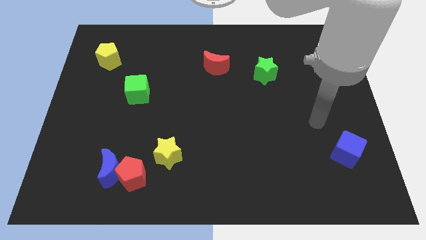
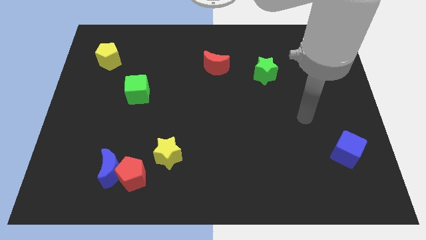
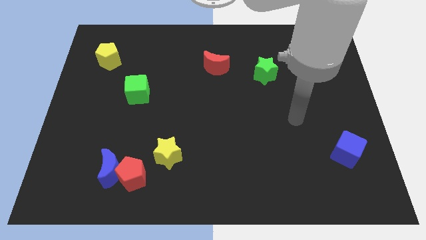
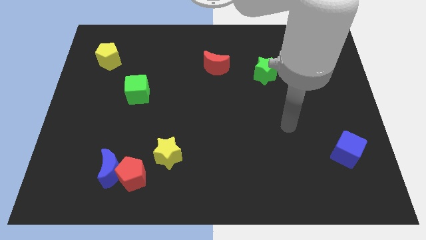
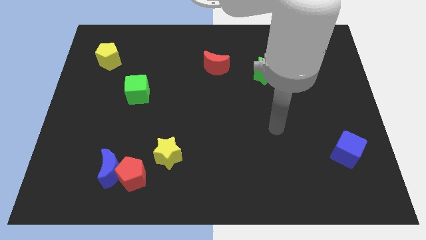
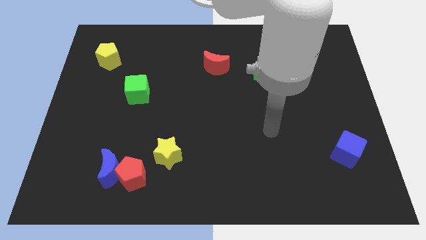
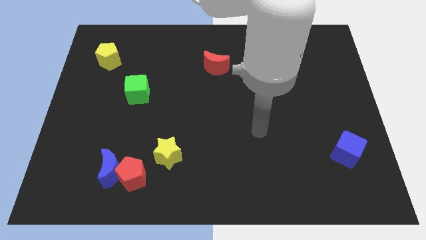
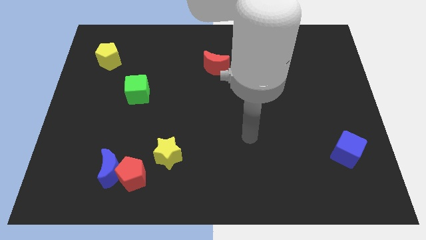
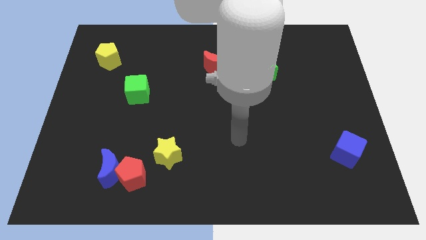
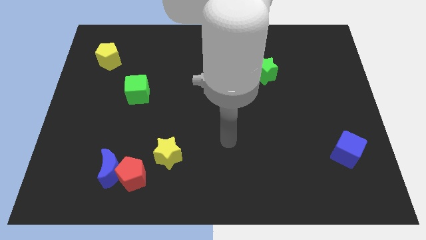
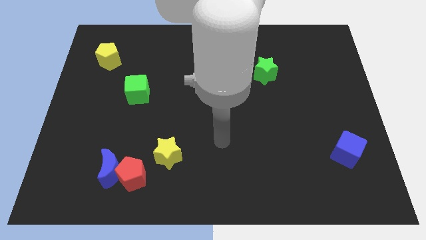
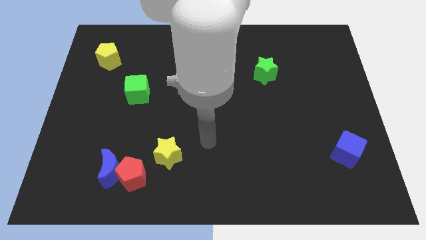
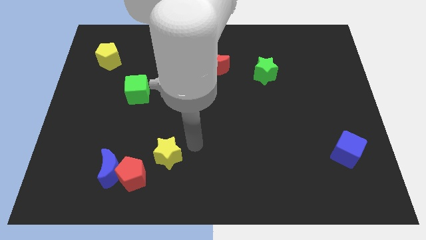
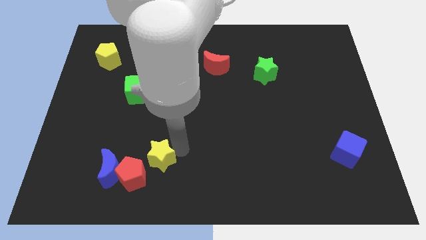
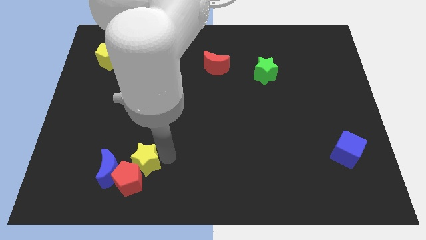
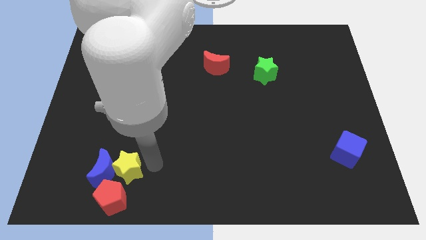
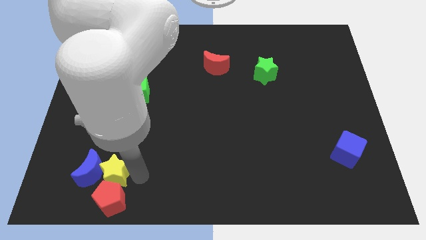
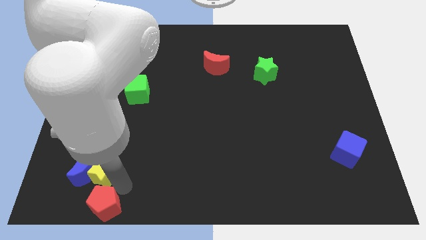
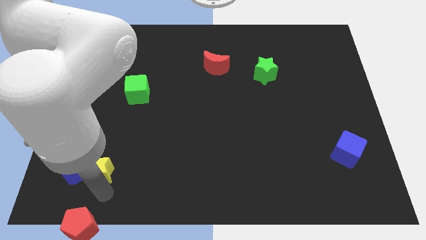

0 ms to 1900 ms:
move the blue moon away from the red pentagon

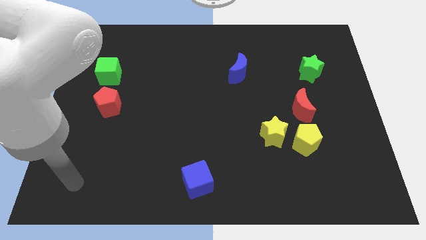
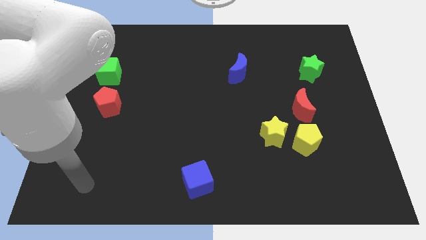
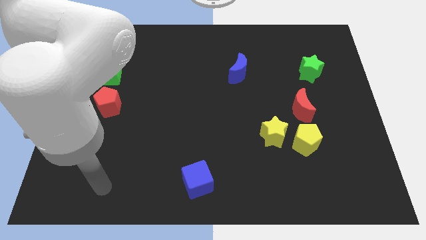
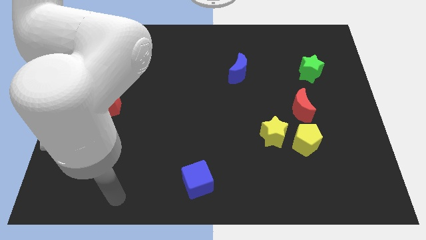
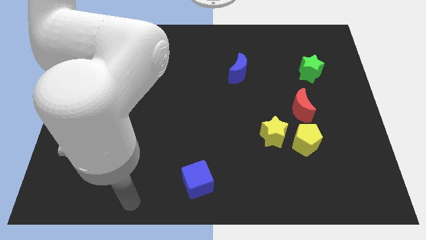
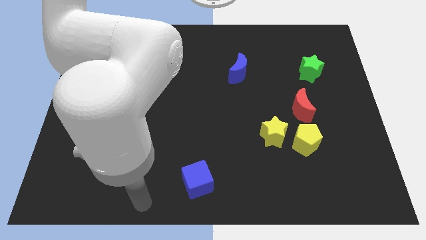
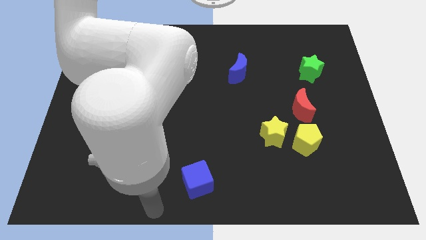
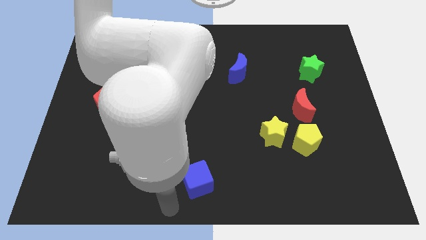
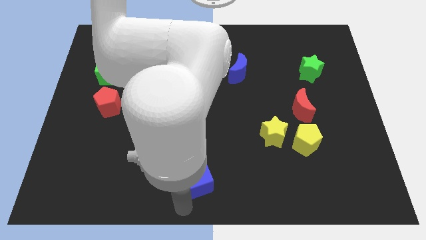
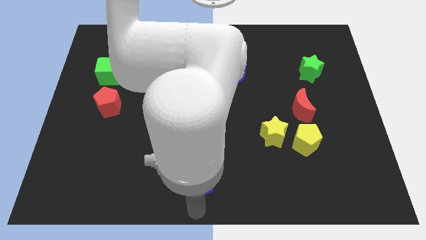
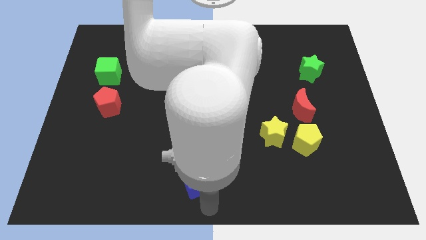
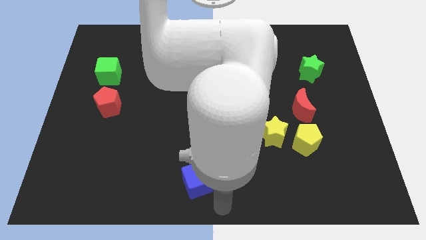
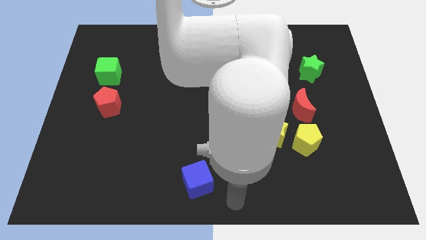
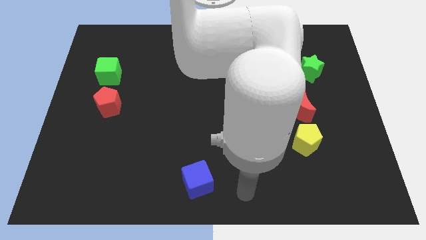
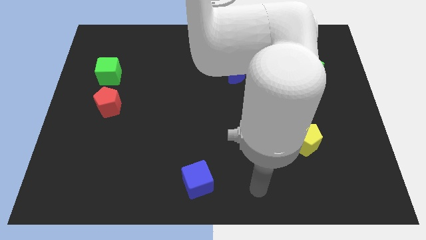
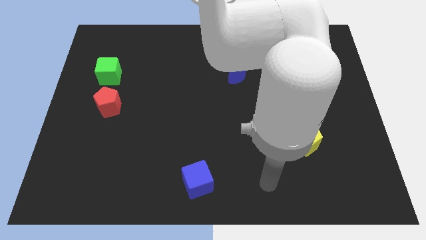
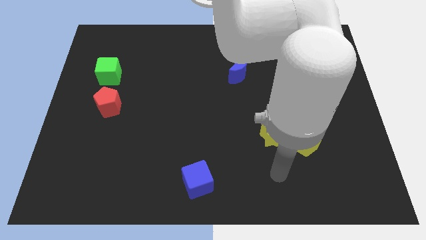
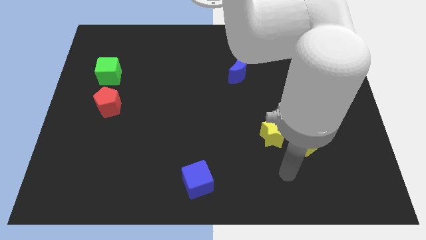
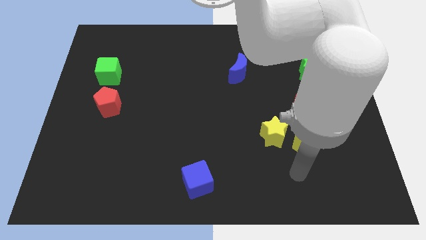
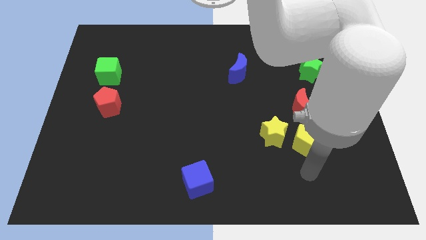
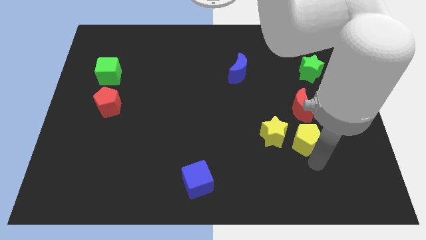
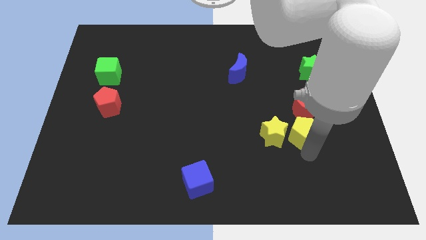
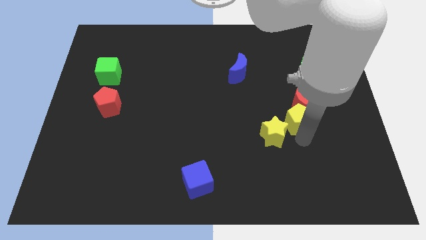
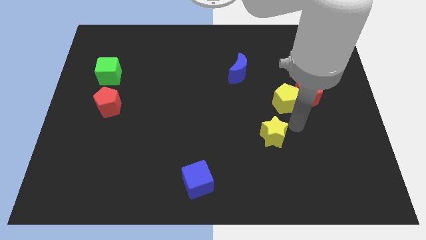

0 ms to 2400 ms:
separate the yellow star from the yellow pentagon

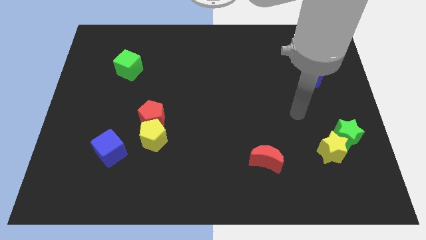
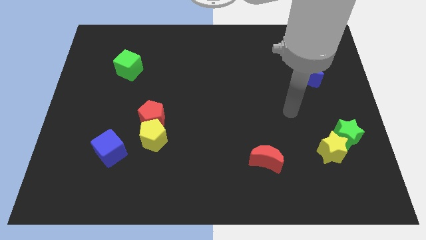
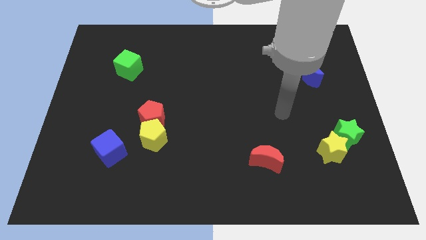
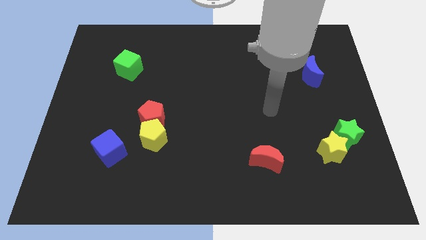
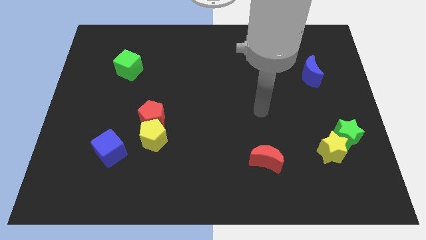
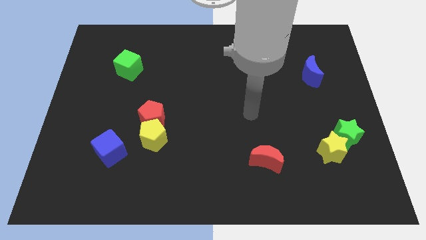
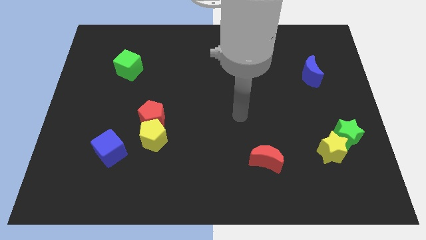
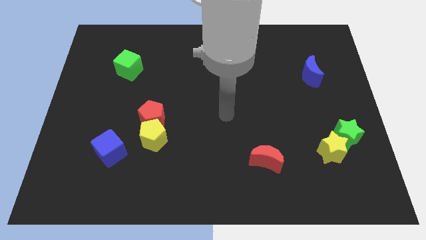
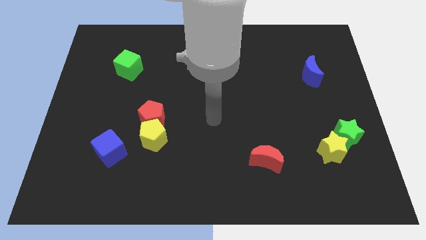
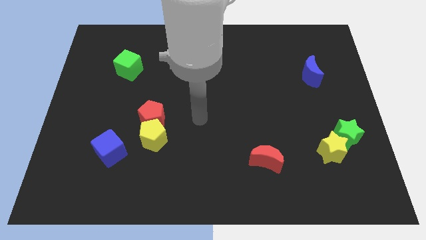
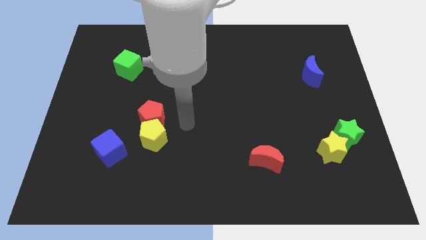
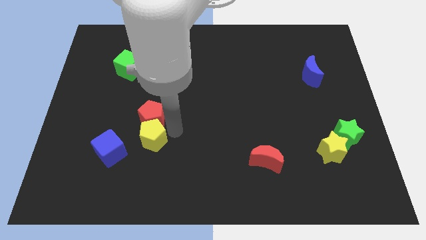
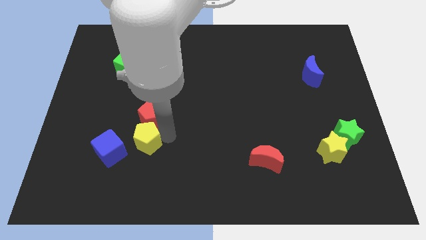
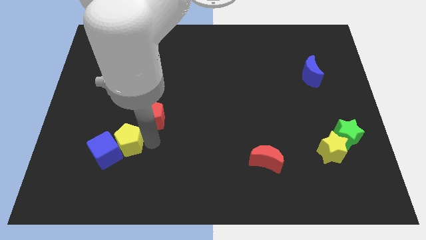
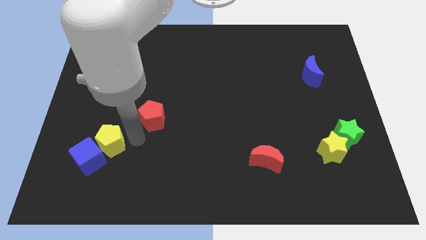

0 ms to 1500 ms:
move the red pentagon away from the yellow pentagon

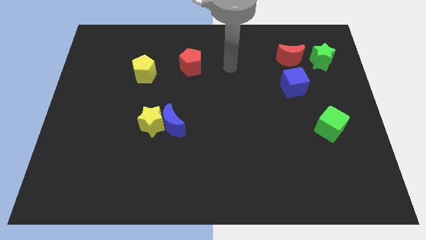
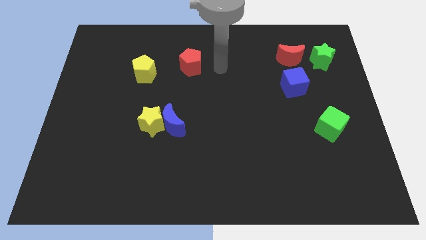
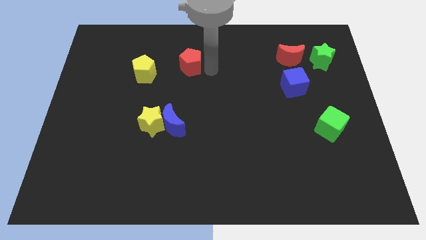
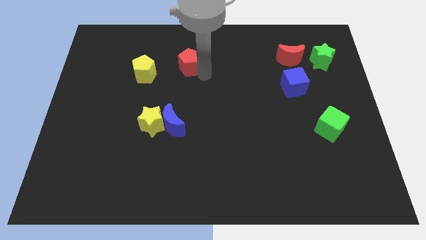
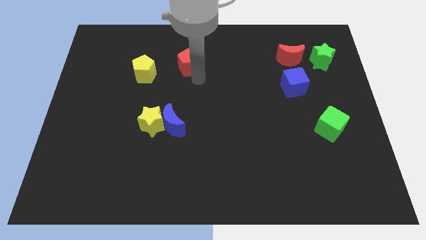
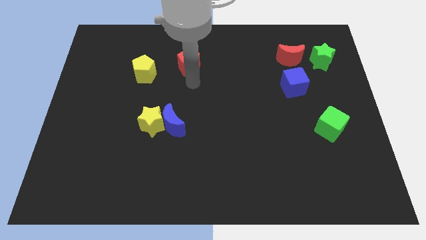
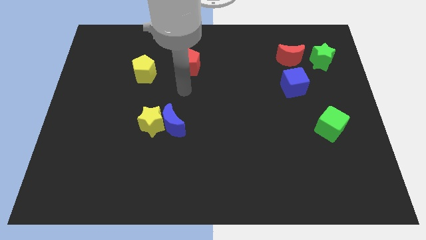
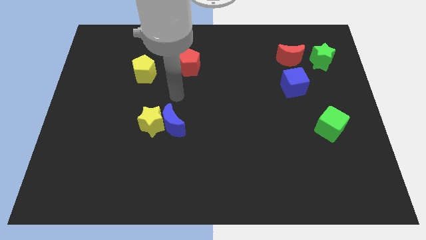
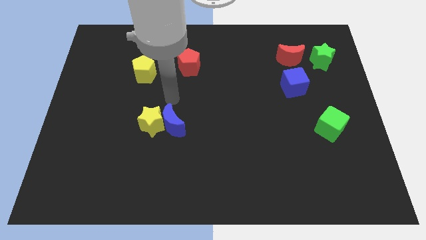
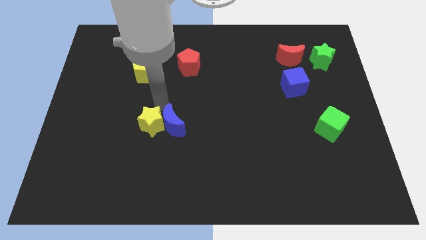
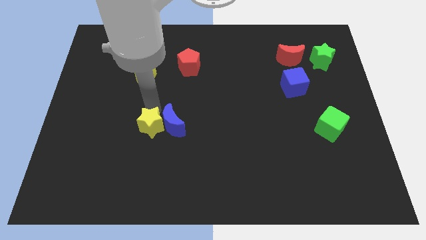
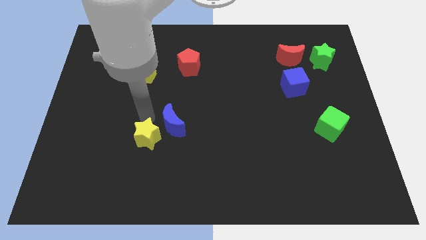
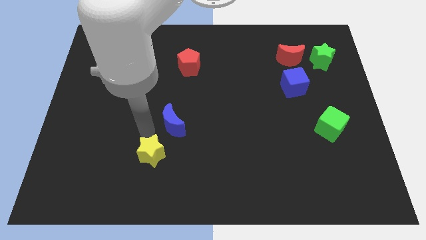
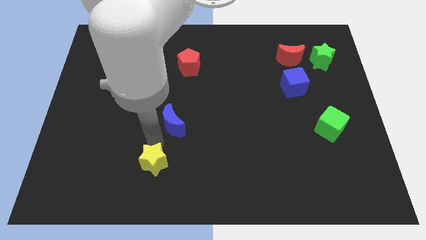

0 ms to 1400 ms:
pull the blue moon apart from the yellow star

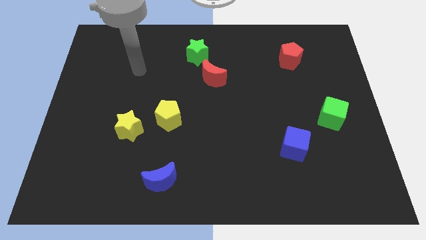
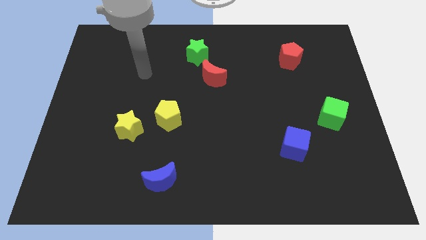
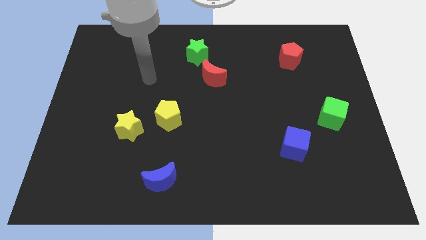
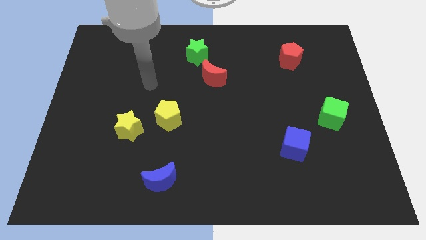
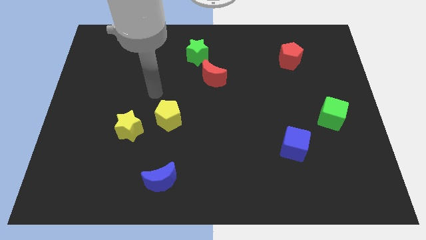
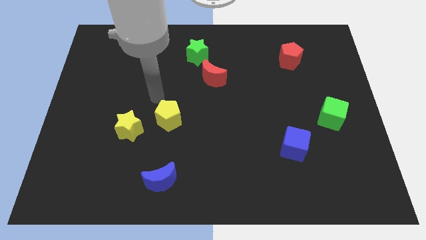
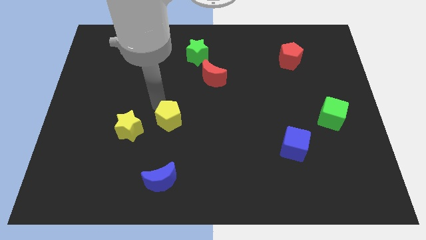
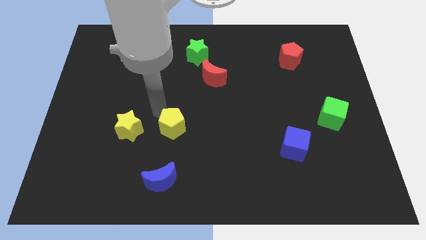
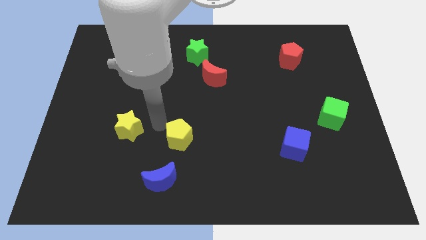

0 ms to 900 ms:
move the yellow star away from the yellow pentagon

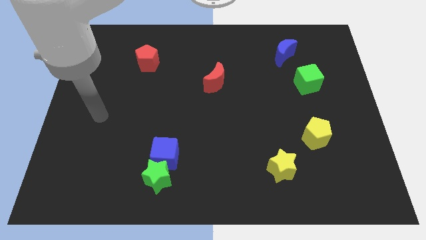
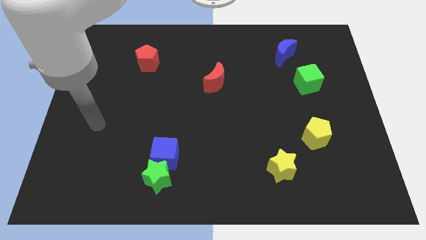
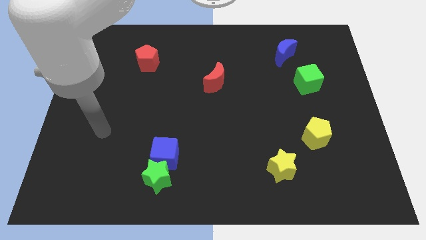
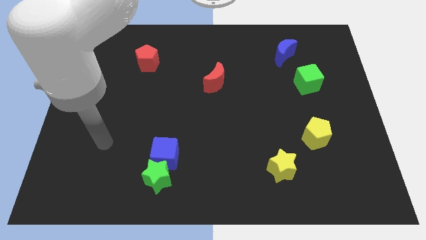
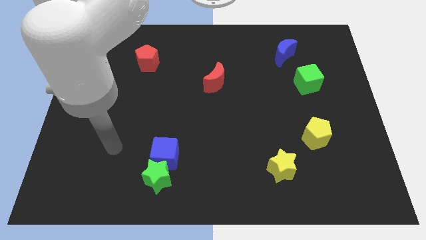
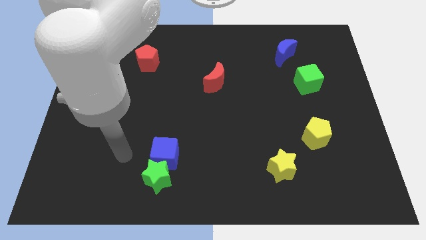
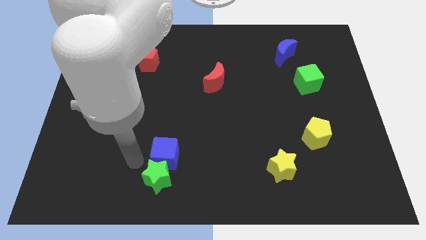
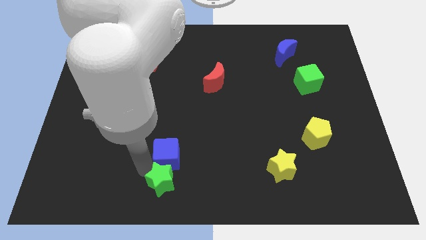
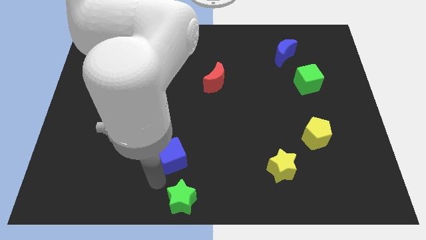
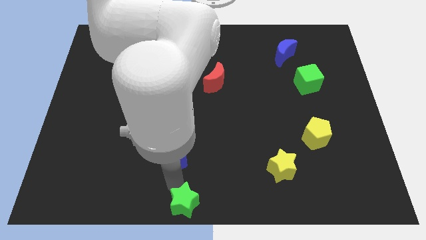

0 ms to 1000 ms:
separate the blue cube from the green star

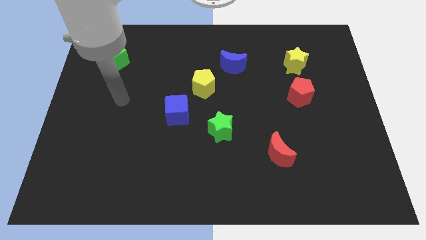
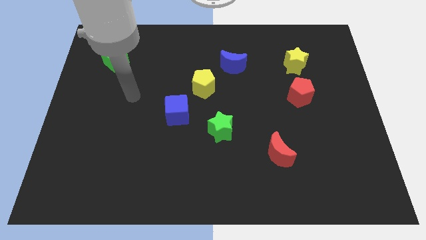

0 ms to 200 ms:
move the blue cube away from the yellow pentagon

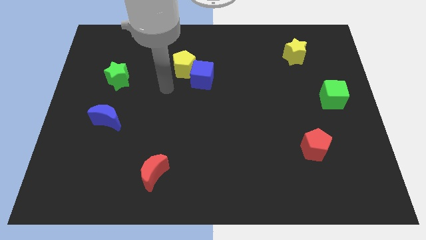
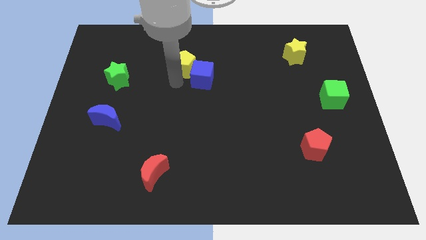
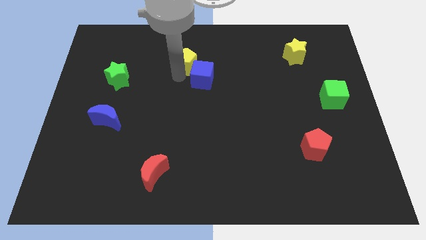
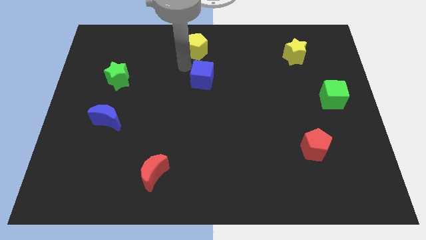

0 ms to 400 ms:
pull the blue cube apart from the yellow pentagon
